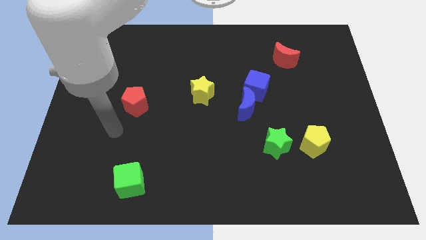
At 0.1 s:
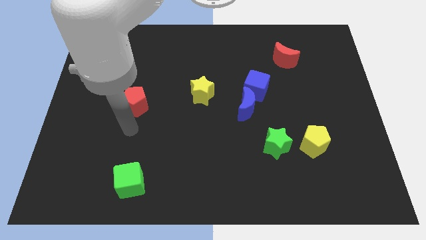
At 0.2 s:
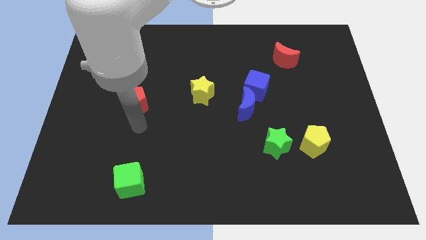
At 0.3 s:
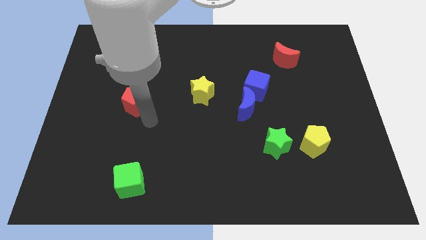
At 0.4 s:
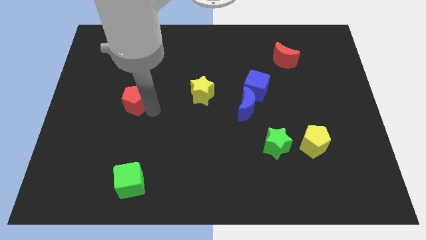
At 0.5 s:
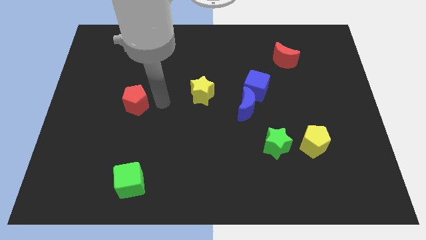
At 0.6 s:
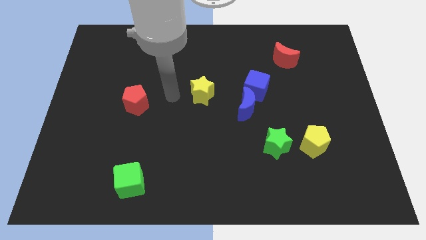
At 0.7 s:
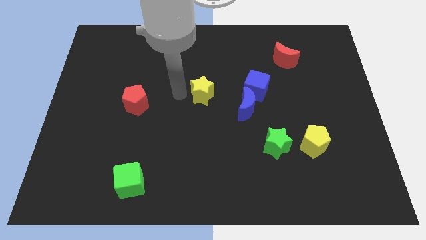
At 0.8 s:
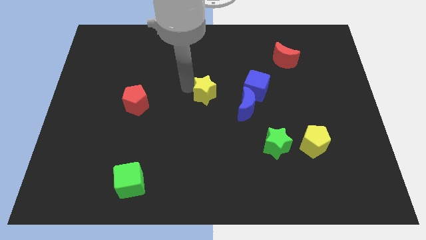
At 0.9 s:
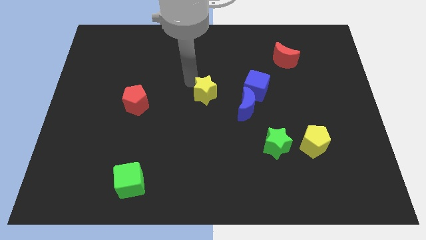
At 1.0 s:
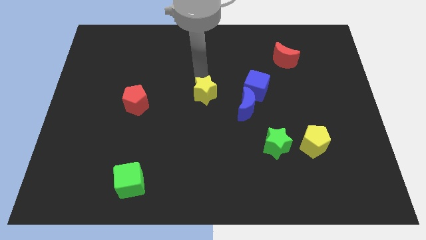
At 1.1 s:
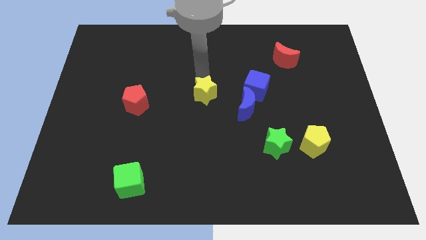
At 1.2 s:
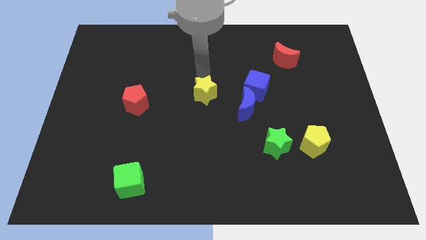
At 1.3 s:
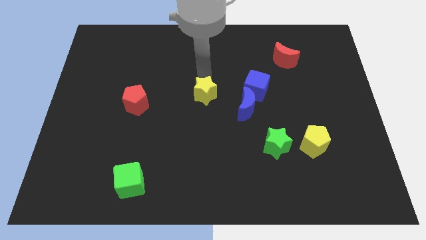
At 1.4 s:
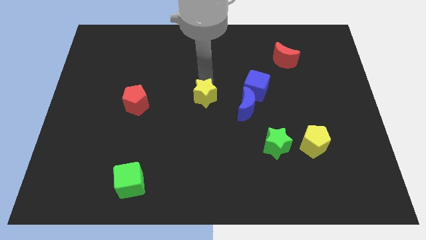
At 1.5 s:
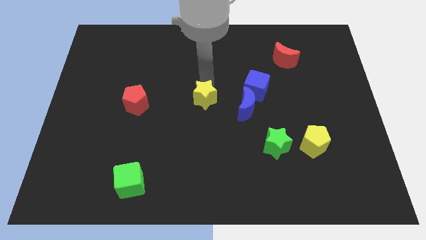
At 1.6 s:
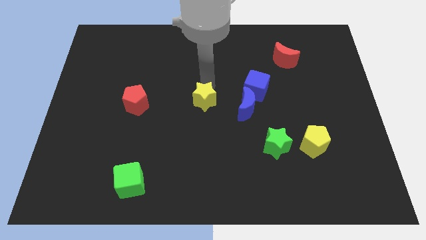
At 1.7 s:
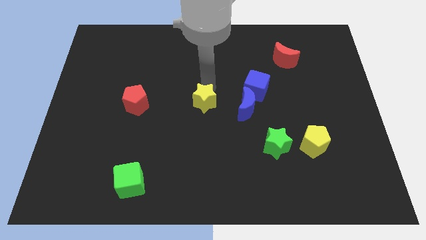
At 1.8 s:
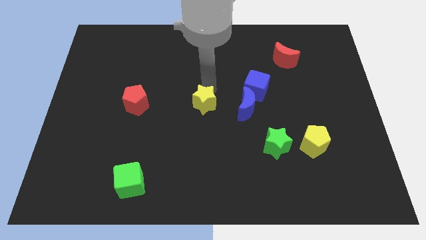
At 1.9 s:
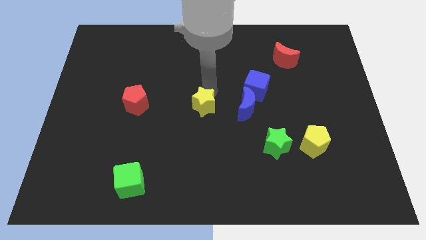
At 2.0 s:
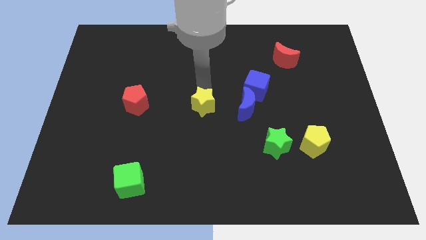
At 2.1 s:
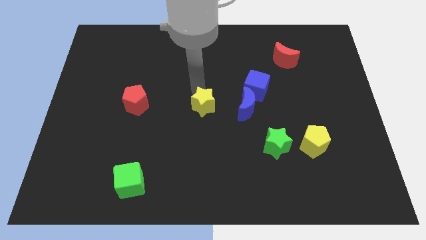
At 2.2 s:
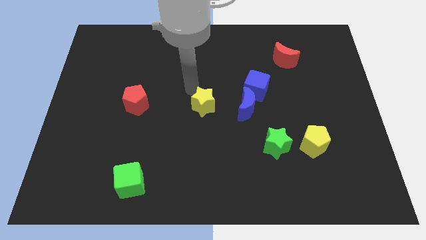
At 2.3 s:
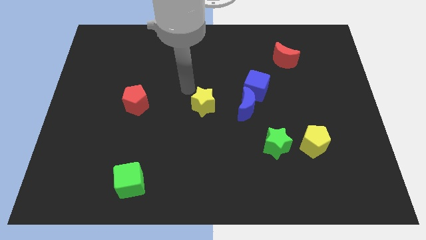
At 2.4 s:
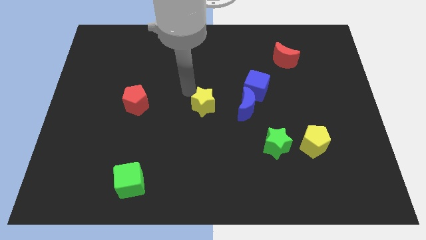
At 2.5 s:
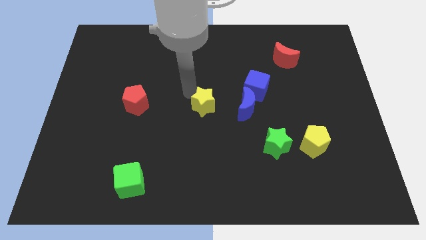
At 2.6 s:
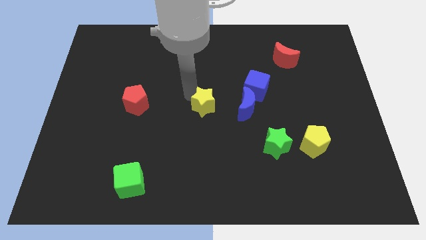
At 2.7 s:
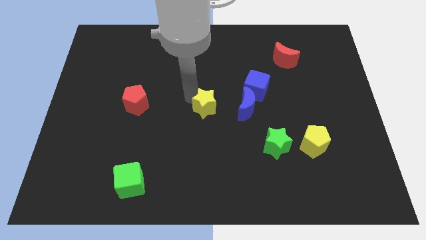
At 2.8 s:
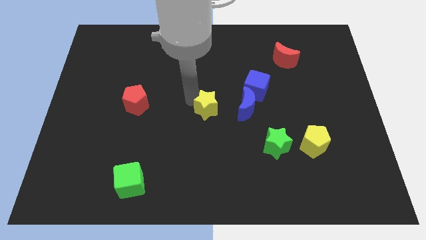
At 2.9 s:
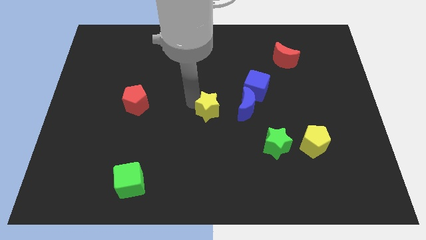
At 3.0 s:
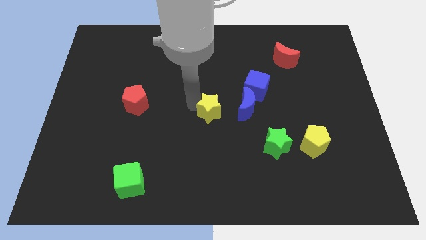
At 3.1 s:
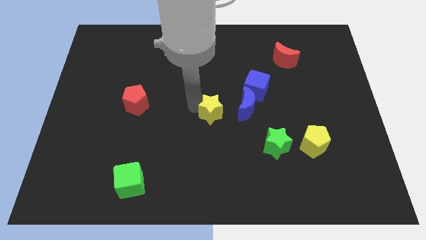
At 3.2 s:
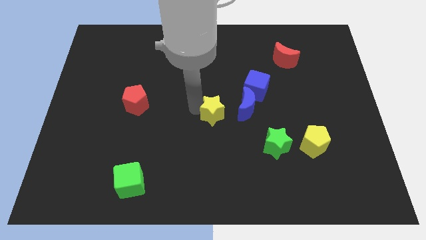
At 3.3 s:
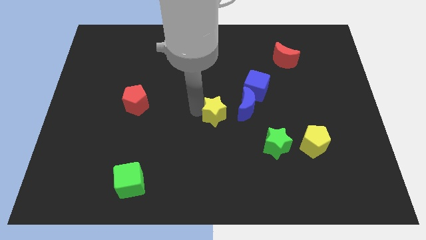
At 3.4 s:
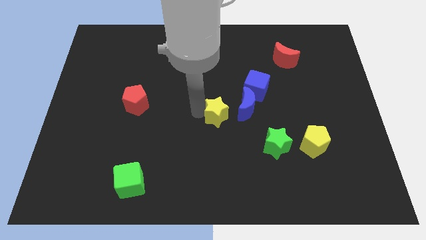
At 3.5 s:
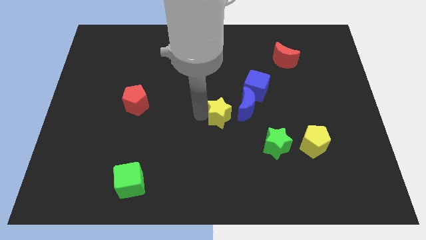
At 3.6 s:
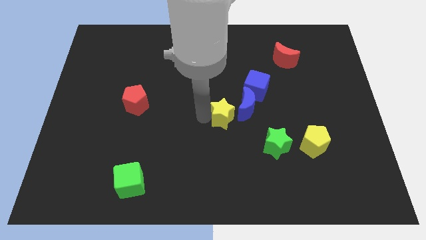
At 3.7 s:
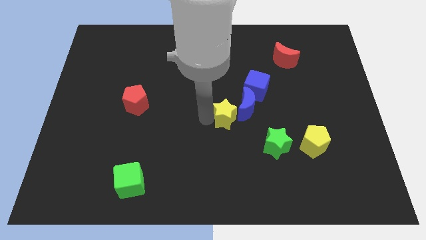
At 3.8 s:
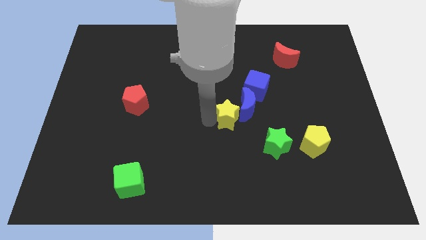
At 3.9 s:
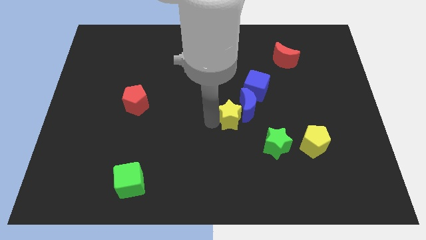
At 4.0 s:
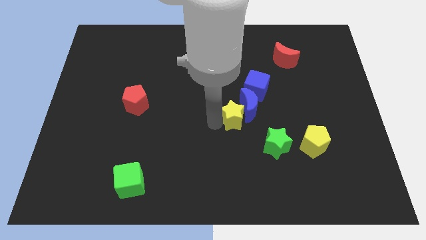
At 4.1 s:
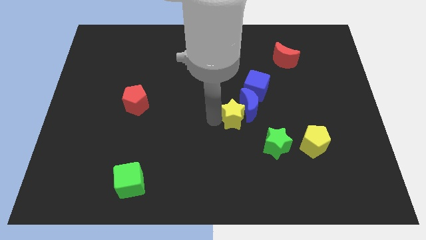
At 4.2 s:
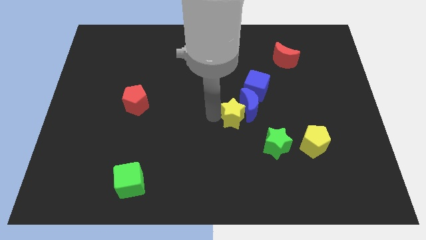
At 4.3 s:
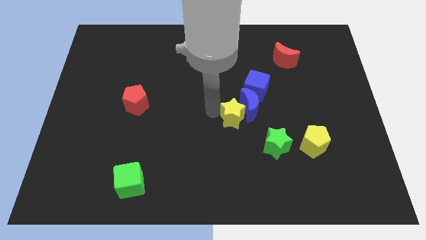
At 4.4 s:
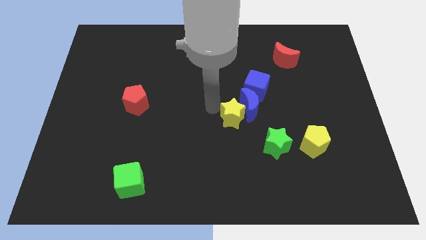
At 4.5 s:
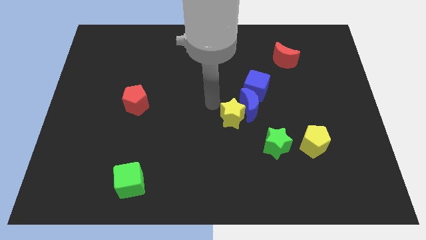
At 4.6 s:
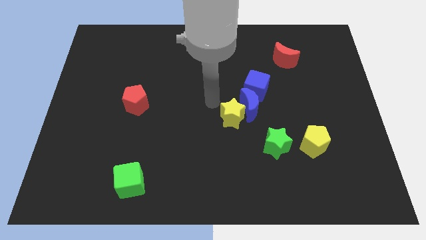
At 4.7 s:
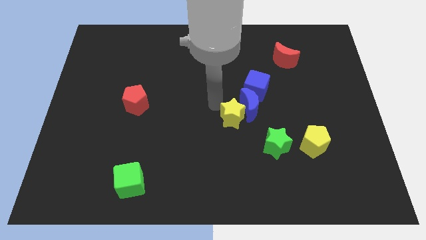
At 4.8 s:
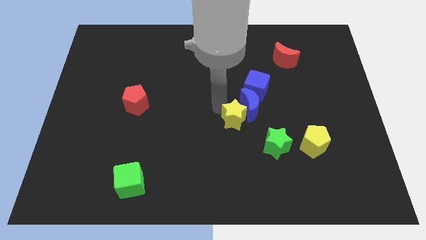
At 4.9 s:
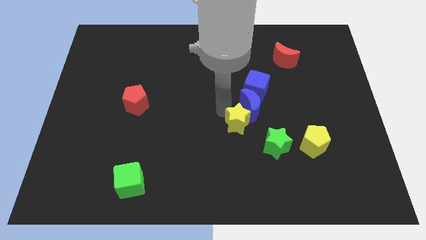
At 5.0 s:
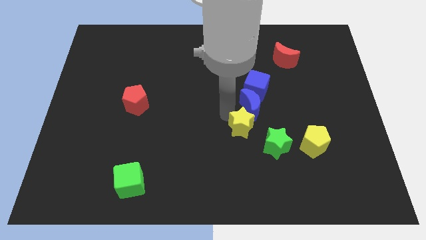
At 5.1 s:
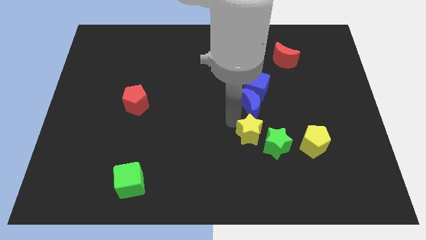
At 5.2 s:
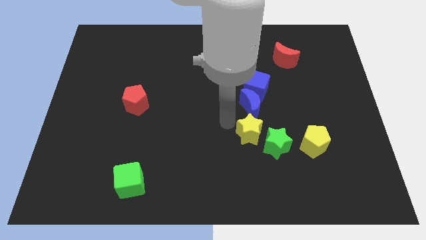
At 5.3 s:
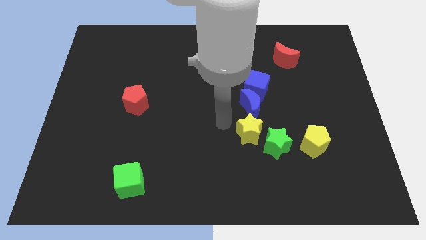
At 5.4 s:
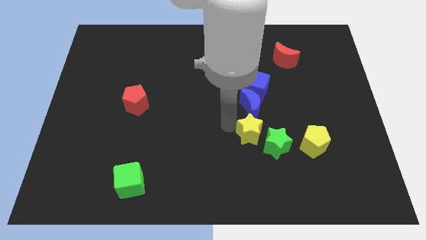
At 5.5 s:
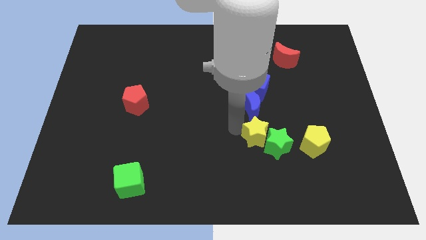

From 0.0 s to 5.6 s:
move the yellow star towards the green star

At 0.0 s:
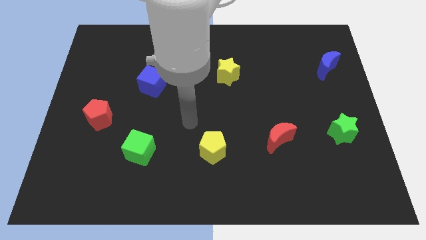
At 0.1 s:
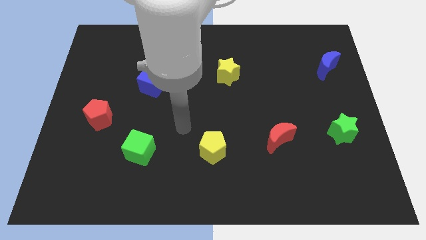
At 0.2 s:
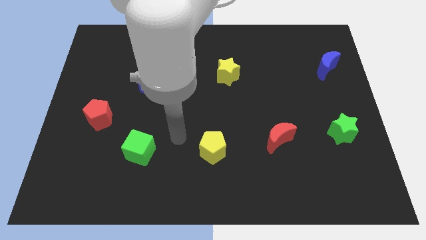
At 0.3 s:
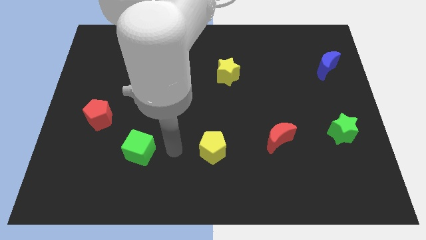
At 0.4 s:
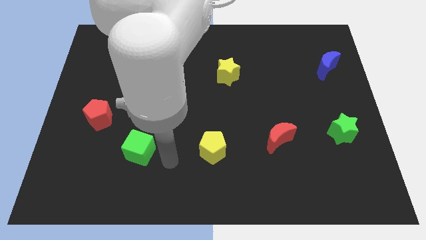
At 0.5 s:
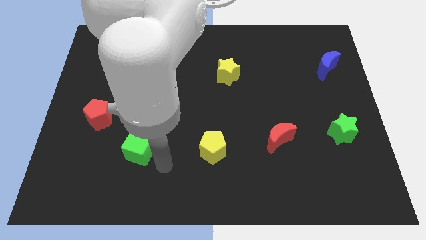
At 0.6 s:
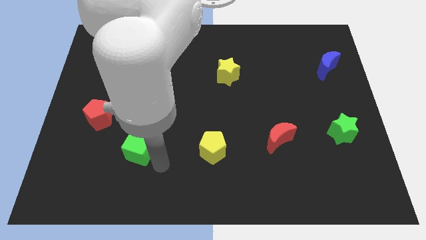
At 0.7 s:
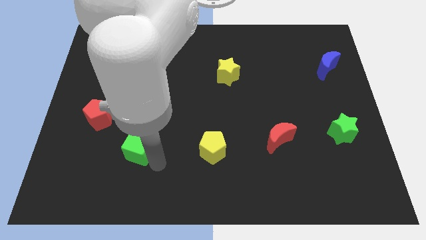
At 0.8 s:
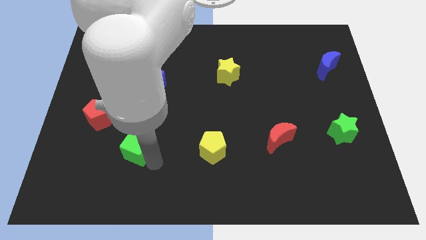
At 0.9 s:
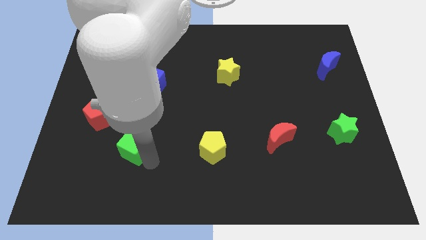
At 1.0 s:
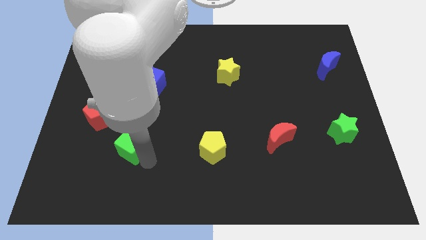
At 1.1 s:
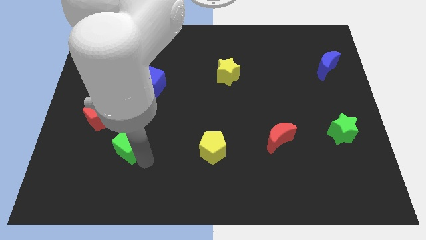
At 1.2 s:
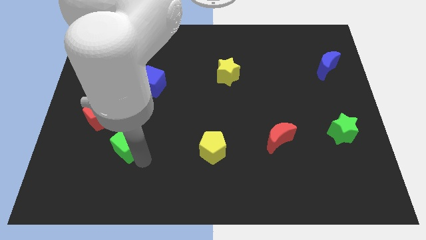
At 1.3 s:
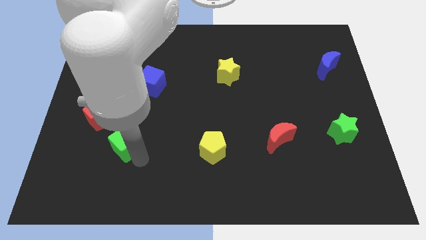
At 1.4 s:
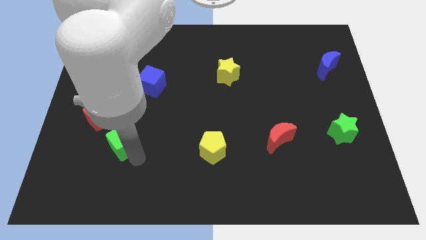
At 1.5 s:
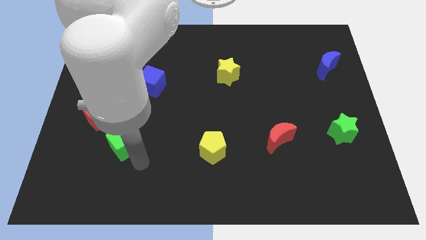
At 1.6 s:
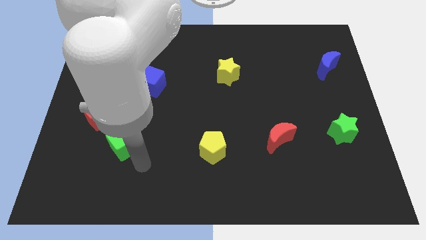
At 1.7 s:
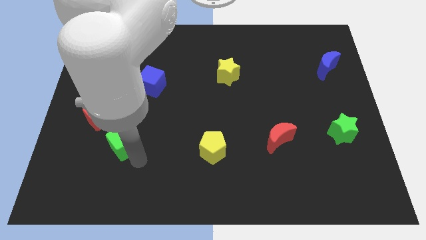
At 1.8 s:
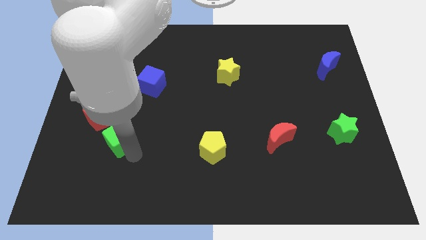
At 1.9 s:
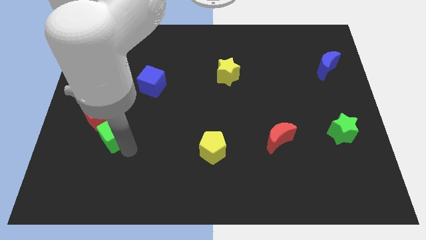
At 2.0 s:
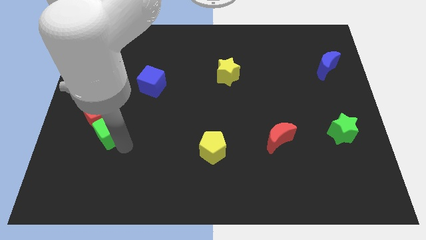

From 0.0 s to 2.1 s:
slide the green cube next to the red pentagon

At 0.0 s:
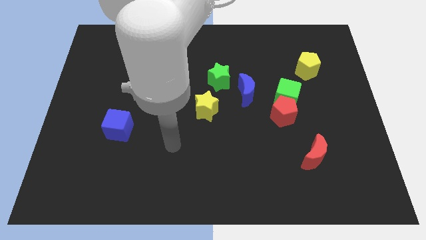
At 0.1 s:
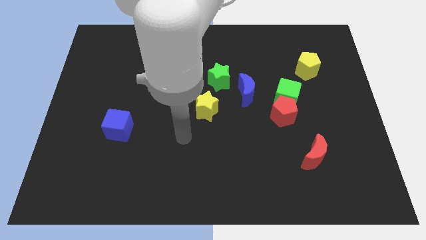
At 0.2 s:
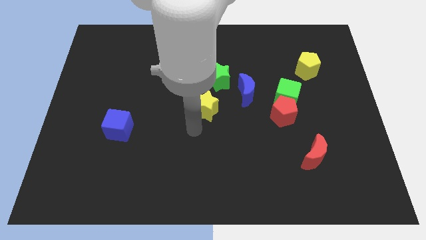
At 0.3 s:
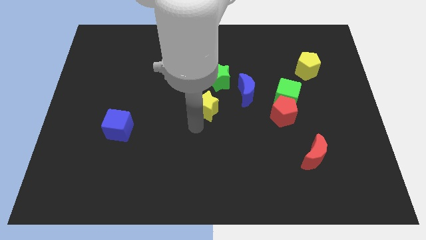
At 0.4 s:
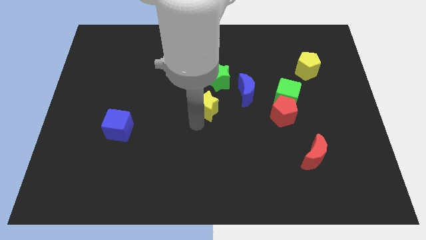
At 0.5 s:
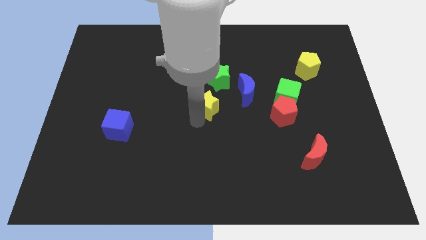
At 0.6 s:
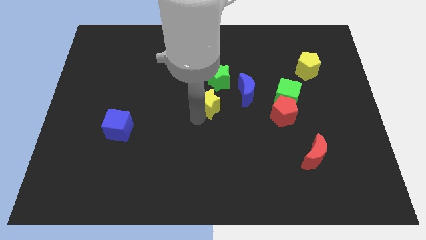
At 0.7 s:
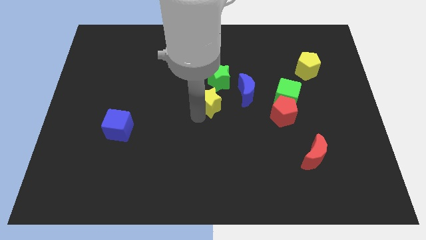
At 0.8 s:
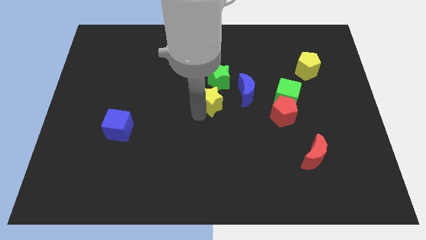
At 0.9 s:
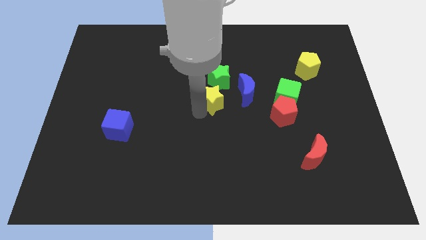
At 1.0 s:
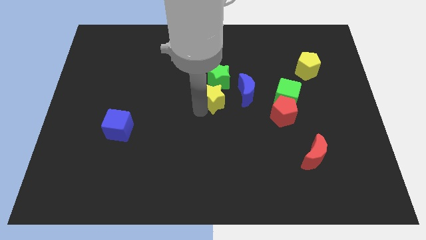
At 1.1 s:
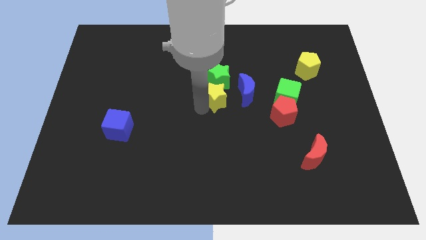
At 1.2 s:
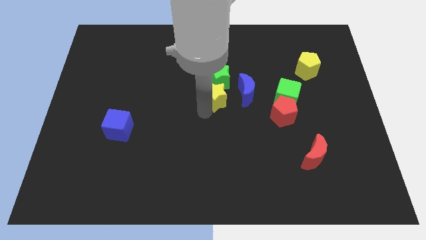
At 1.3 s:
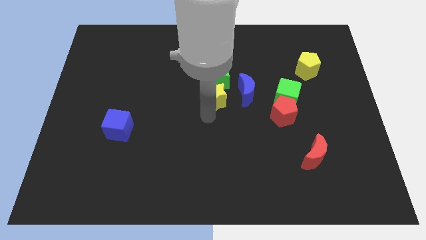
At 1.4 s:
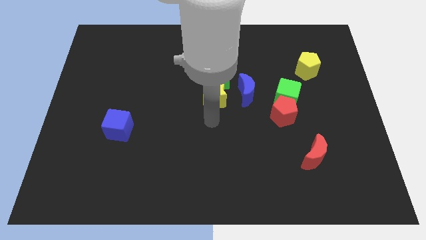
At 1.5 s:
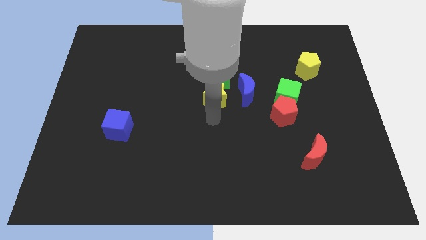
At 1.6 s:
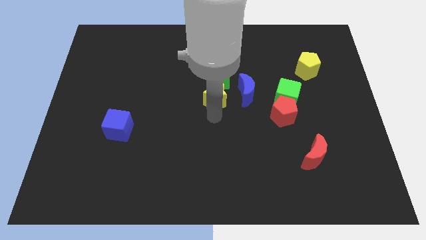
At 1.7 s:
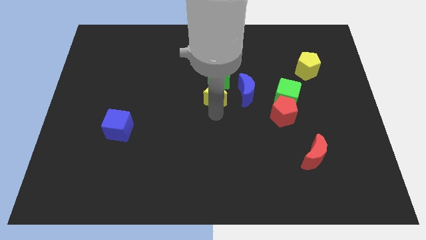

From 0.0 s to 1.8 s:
move the yellow star close to the green star
